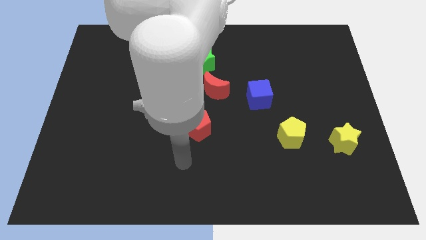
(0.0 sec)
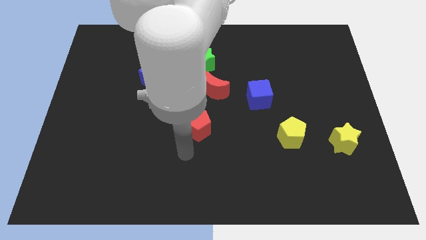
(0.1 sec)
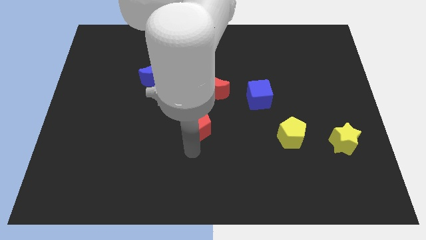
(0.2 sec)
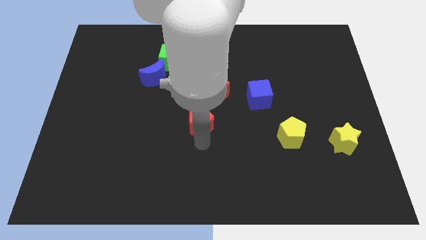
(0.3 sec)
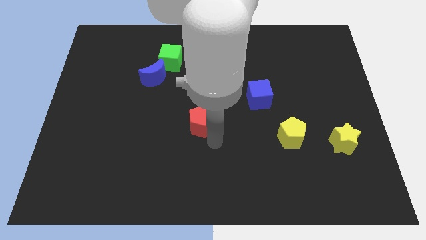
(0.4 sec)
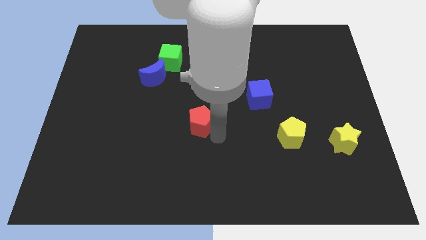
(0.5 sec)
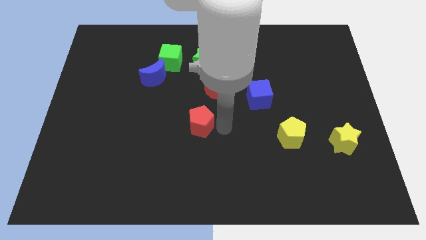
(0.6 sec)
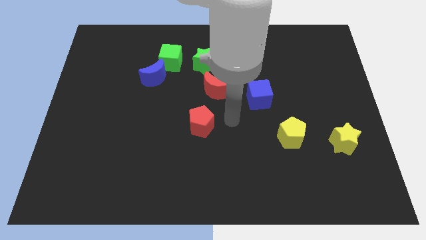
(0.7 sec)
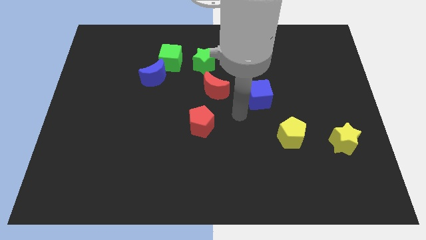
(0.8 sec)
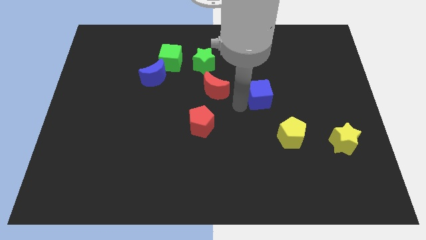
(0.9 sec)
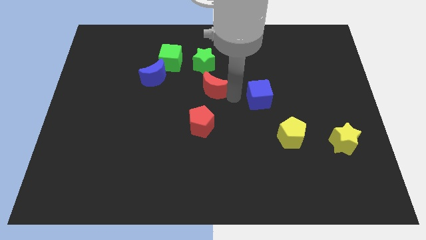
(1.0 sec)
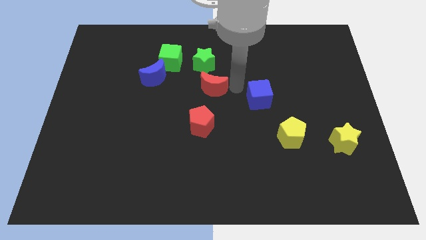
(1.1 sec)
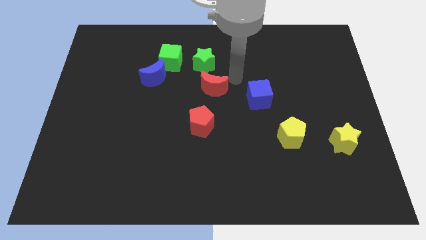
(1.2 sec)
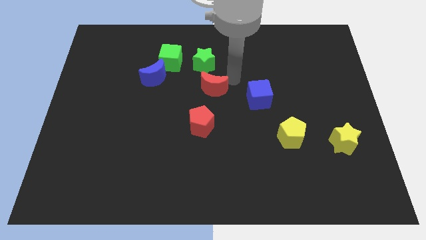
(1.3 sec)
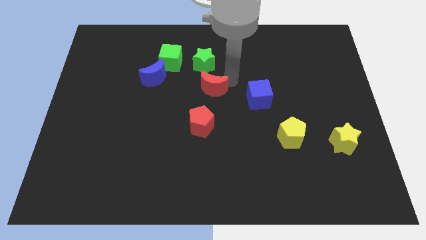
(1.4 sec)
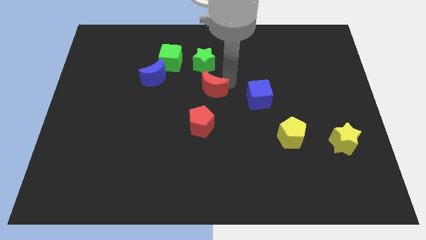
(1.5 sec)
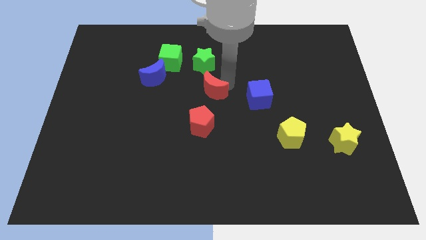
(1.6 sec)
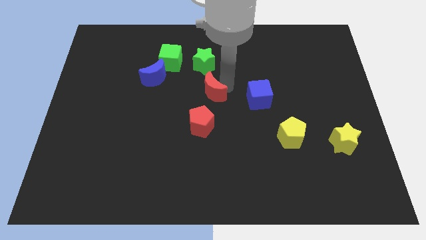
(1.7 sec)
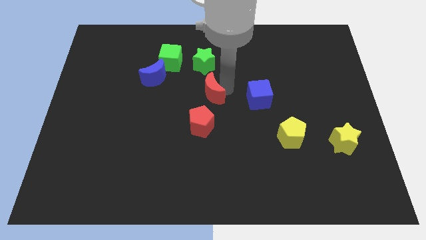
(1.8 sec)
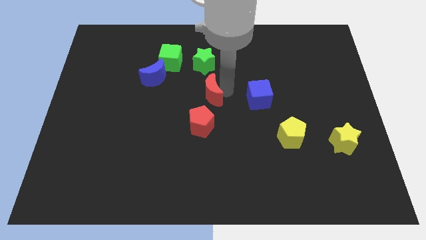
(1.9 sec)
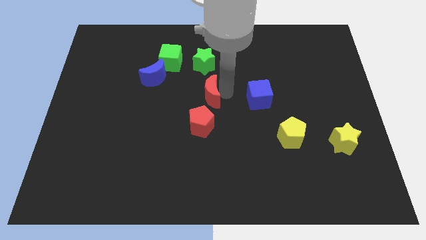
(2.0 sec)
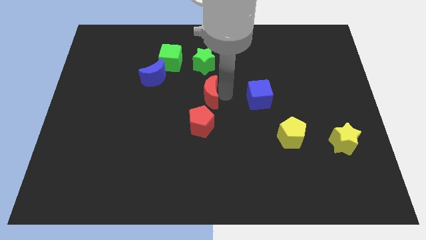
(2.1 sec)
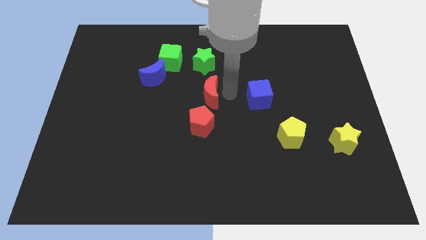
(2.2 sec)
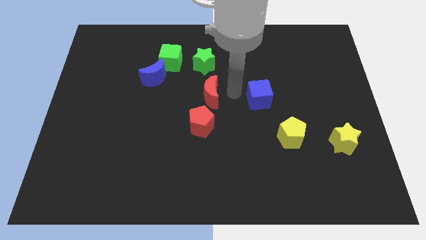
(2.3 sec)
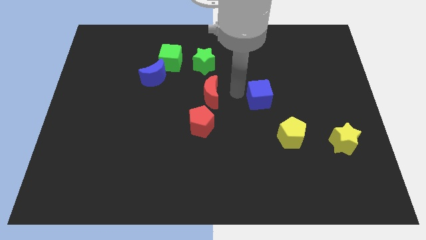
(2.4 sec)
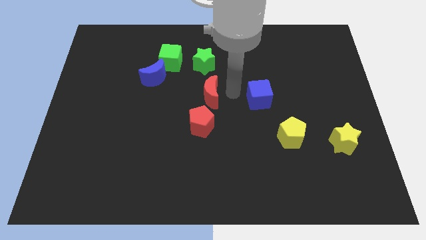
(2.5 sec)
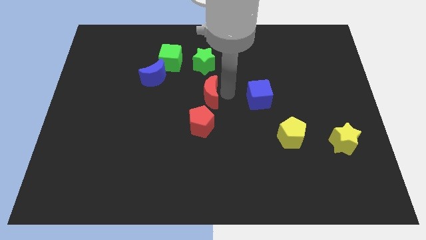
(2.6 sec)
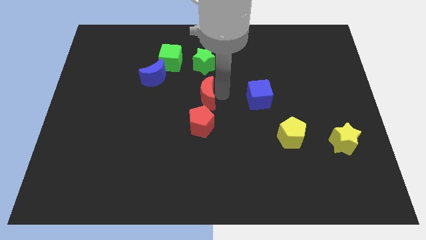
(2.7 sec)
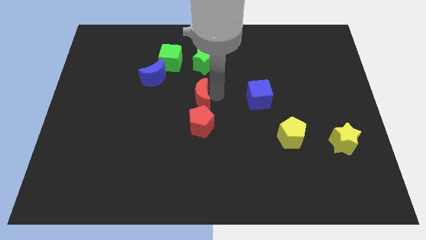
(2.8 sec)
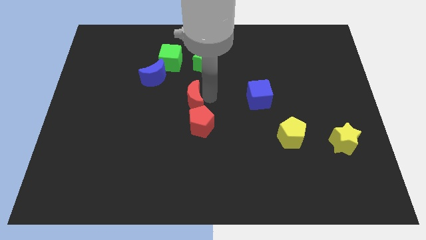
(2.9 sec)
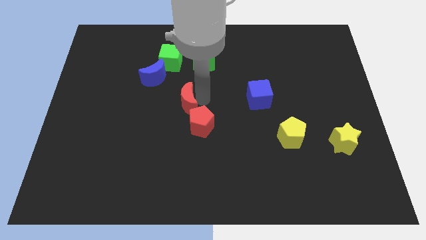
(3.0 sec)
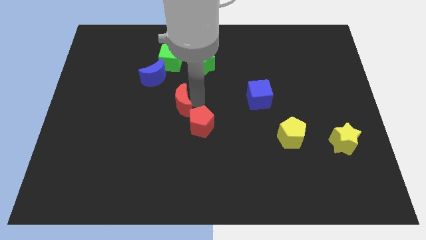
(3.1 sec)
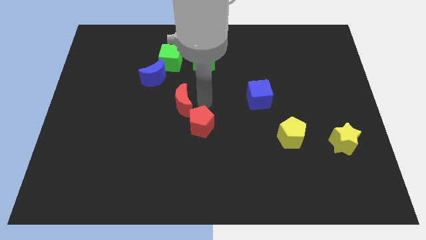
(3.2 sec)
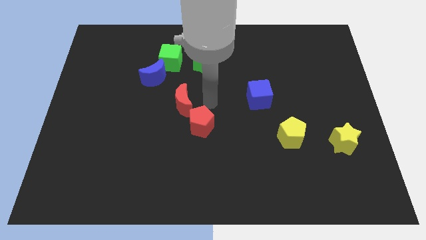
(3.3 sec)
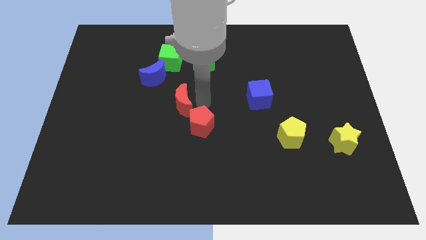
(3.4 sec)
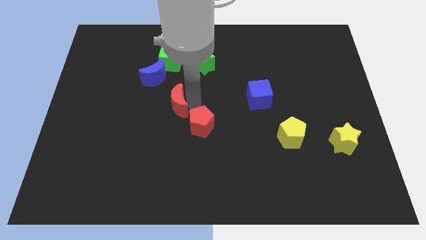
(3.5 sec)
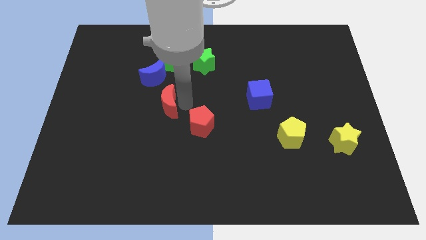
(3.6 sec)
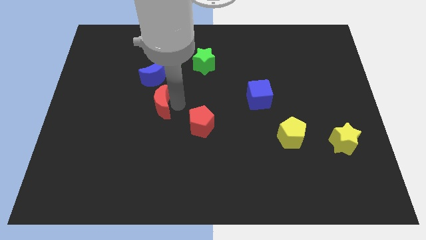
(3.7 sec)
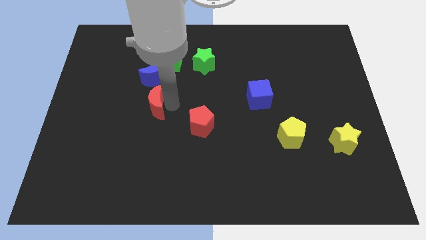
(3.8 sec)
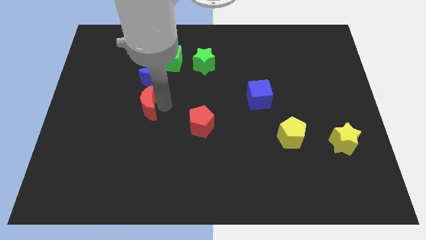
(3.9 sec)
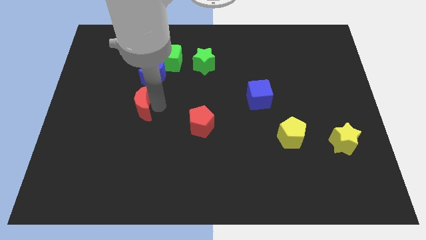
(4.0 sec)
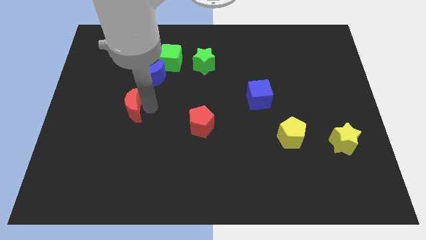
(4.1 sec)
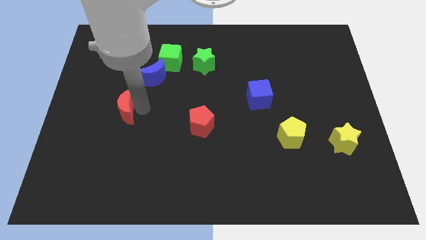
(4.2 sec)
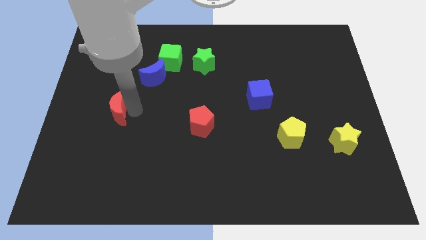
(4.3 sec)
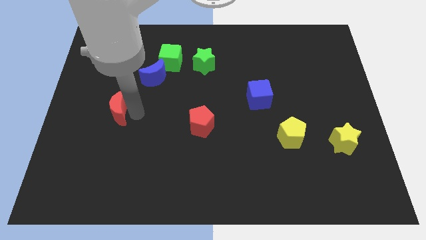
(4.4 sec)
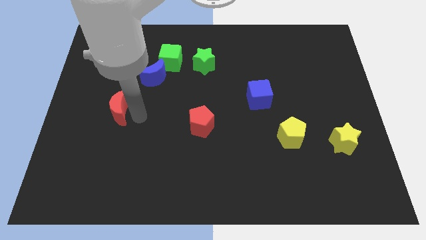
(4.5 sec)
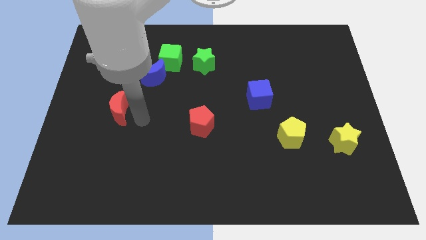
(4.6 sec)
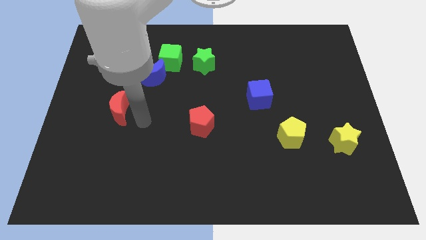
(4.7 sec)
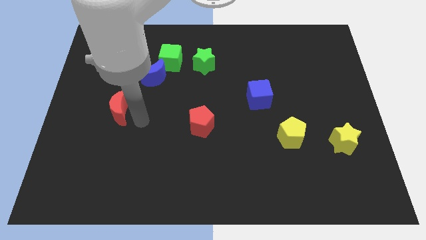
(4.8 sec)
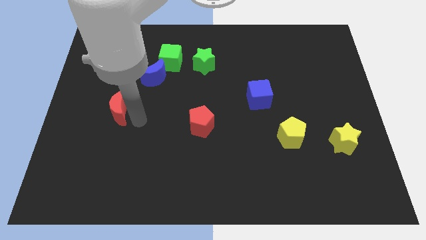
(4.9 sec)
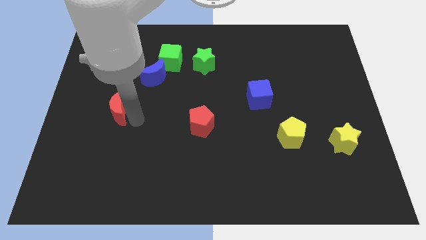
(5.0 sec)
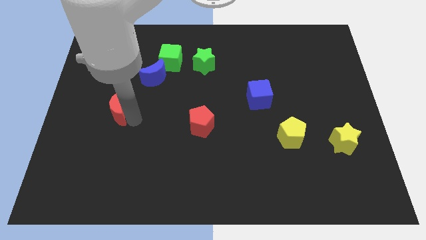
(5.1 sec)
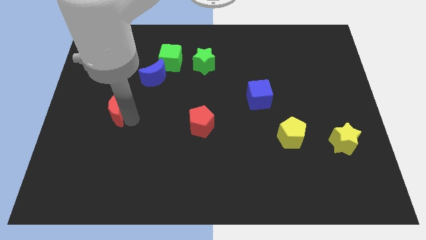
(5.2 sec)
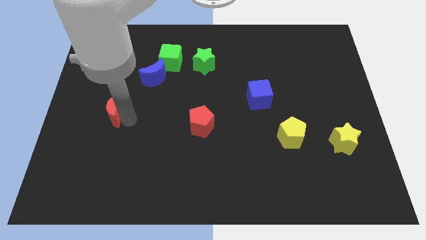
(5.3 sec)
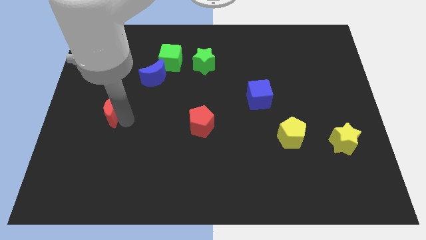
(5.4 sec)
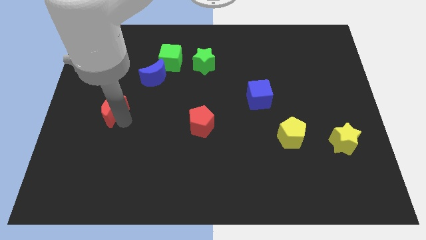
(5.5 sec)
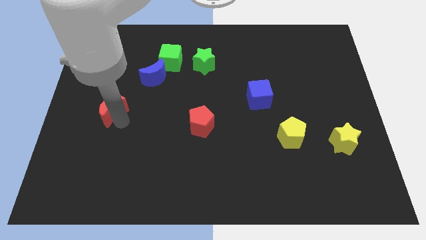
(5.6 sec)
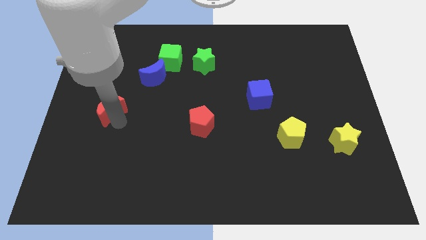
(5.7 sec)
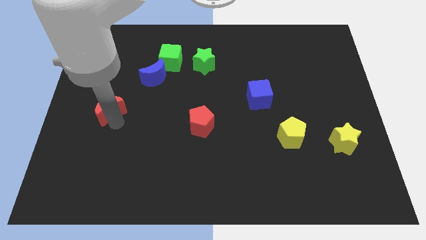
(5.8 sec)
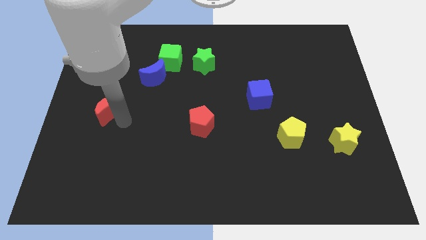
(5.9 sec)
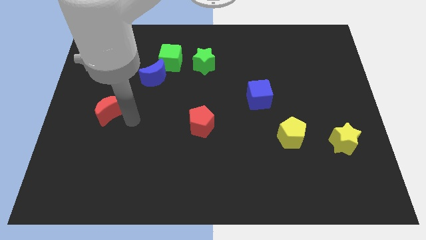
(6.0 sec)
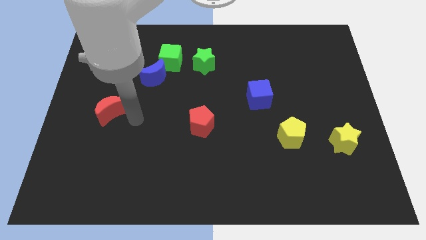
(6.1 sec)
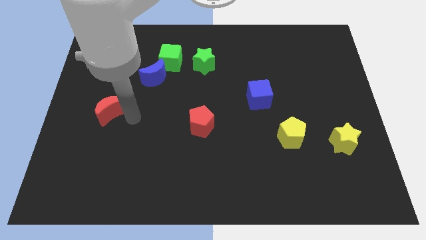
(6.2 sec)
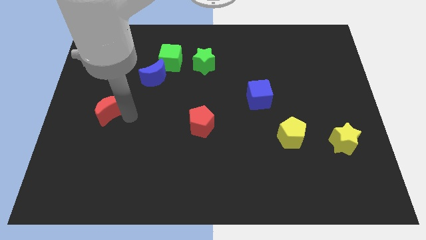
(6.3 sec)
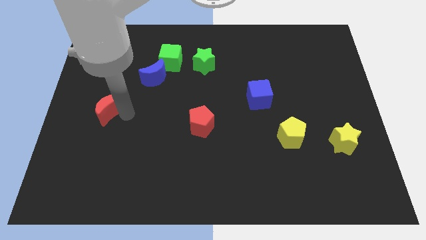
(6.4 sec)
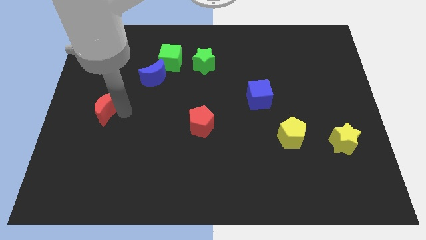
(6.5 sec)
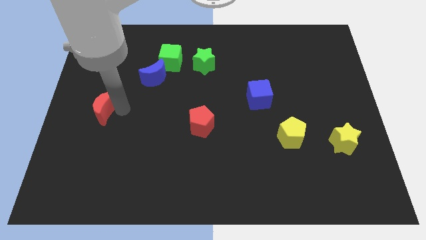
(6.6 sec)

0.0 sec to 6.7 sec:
push the red moon to the left side
